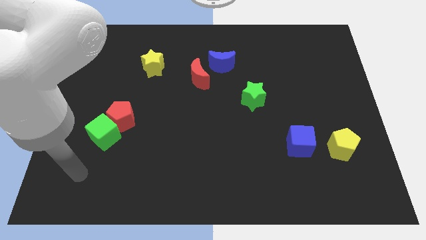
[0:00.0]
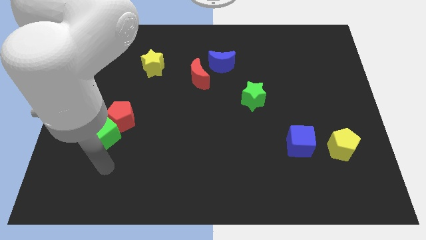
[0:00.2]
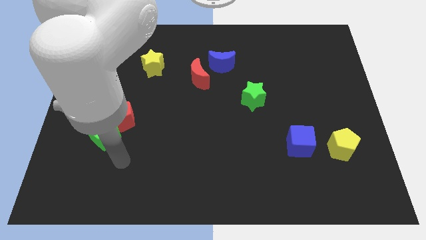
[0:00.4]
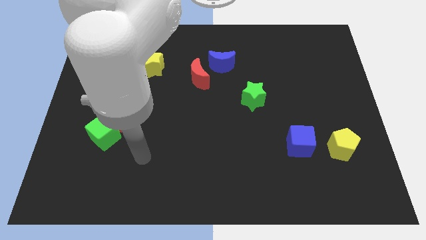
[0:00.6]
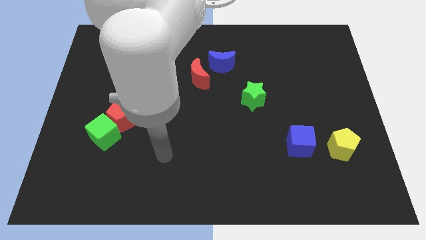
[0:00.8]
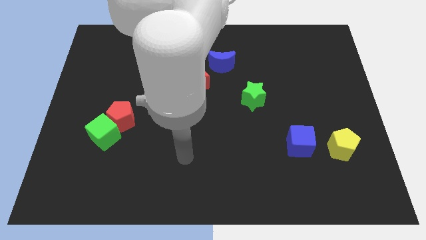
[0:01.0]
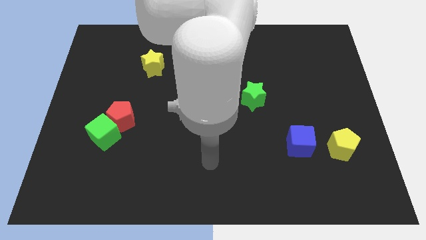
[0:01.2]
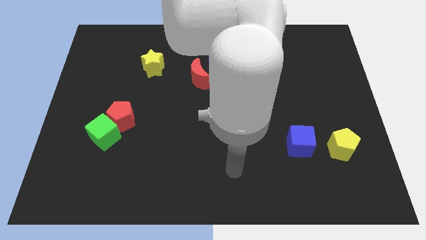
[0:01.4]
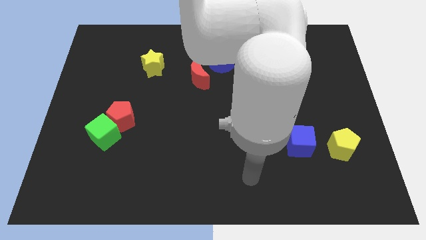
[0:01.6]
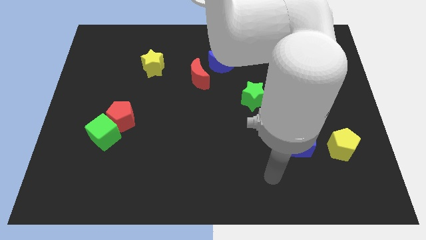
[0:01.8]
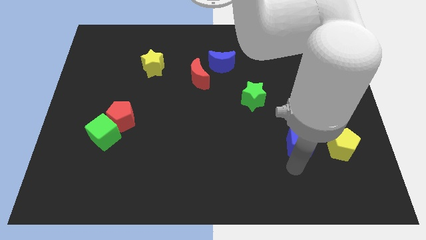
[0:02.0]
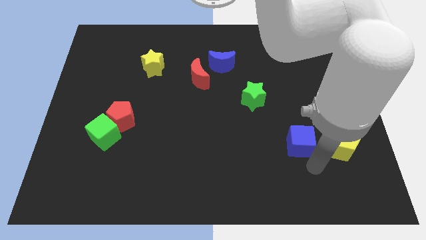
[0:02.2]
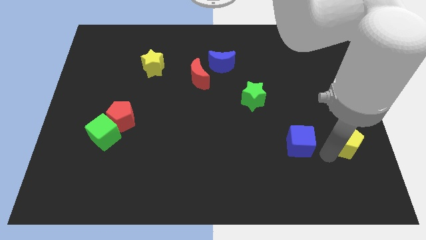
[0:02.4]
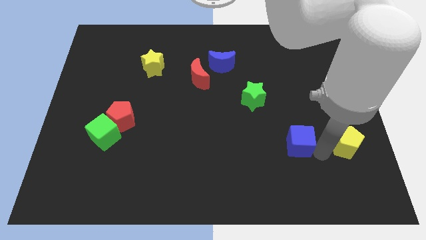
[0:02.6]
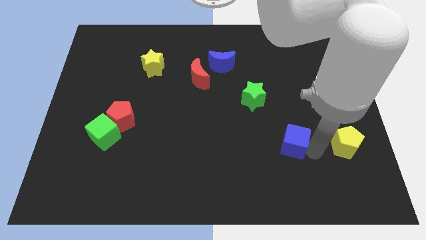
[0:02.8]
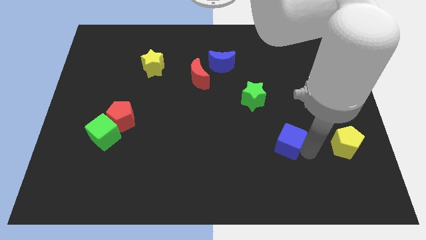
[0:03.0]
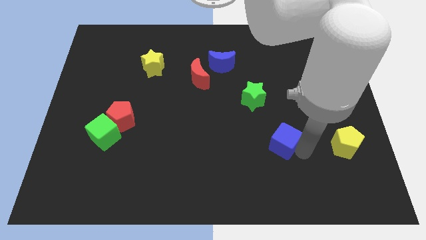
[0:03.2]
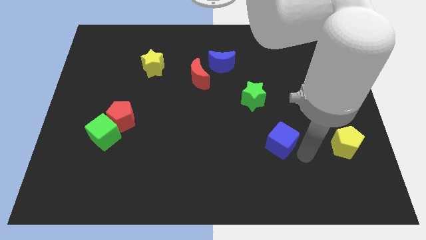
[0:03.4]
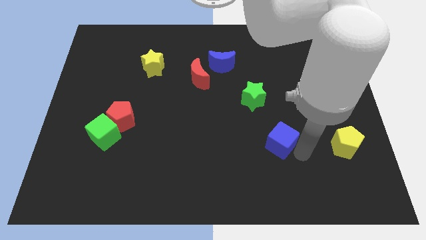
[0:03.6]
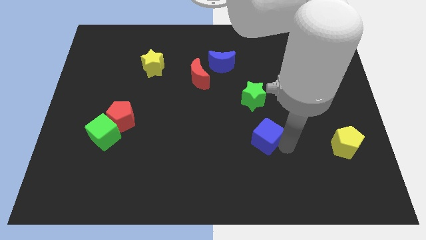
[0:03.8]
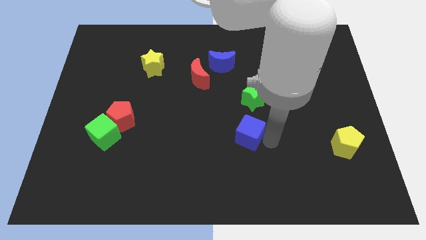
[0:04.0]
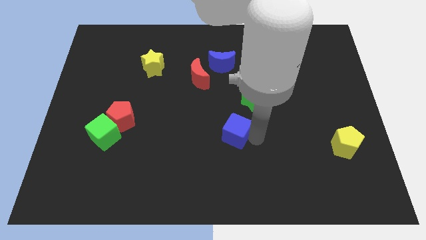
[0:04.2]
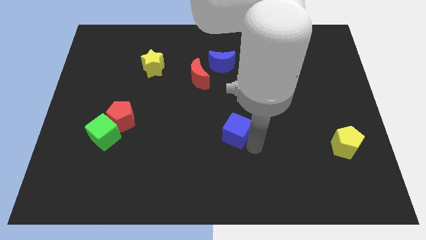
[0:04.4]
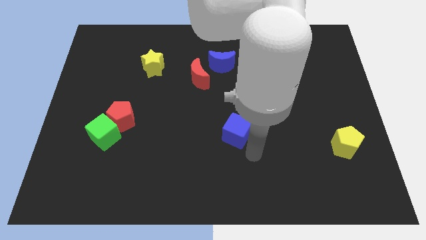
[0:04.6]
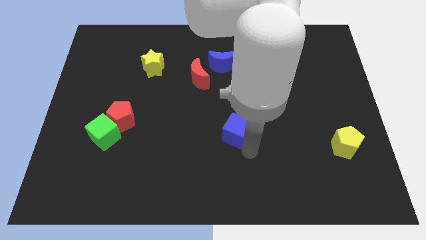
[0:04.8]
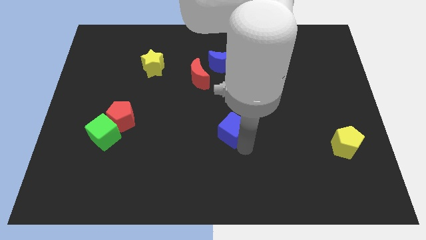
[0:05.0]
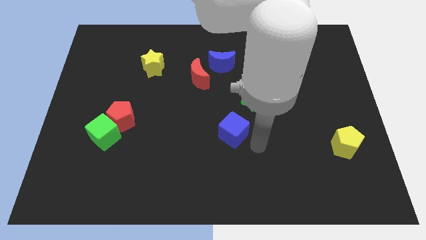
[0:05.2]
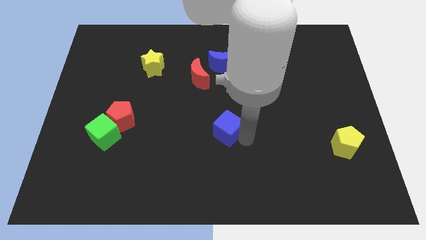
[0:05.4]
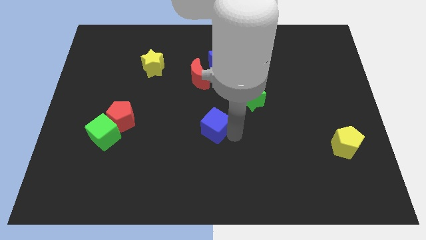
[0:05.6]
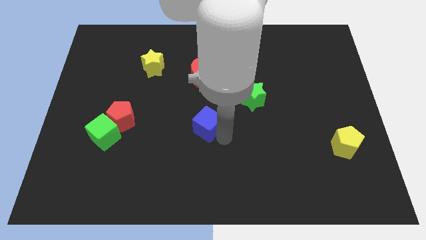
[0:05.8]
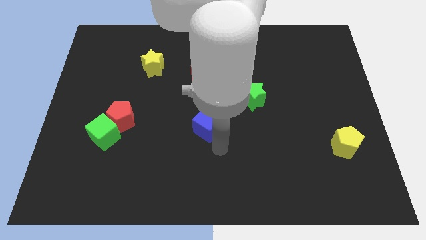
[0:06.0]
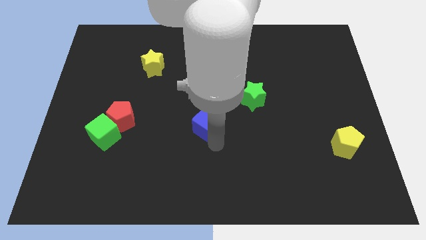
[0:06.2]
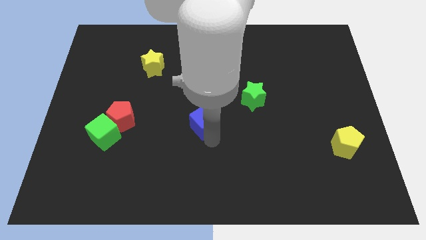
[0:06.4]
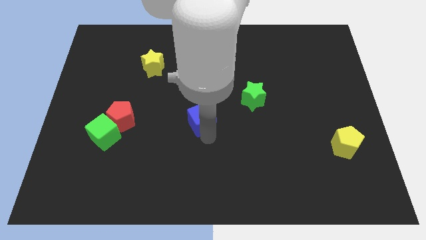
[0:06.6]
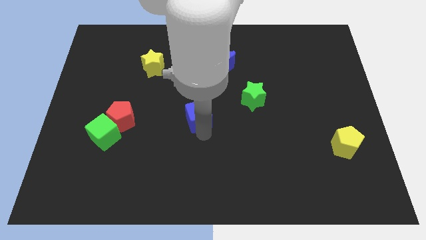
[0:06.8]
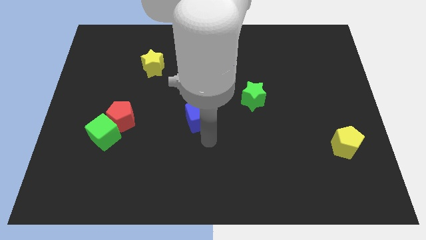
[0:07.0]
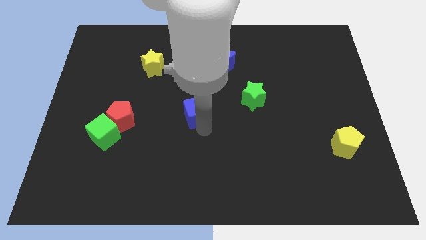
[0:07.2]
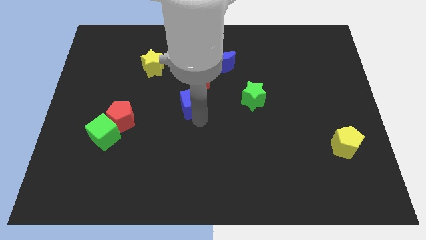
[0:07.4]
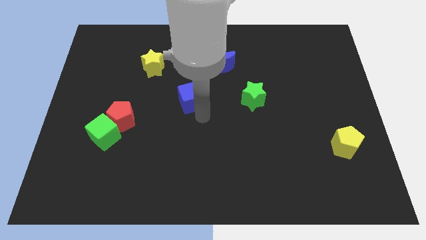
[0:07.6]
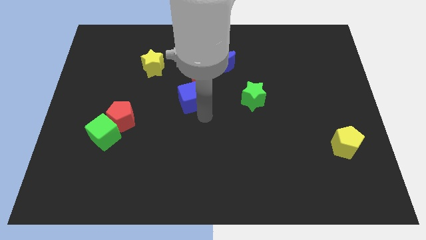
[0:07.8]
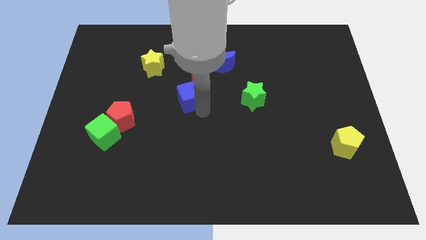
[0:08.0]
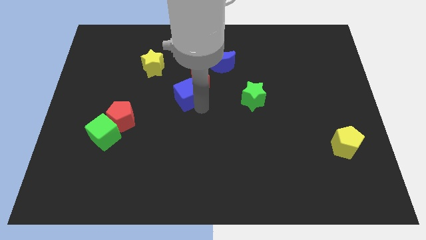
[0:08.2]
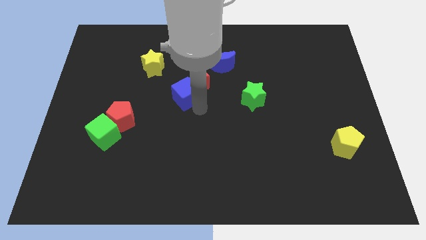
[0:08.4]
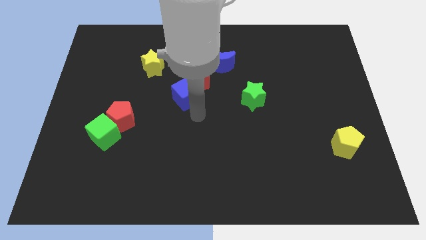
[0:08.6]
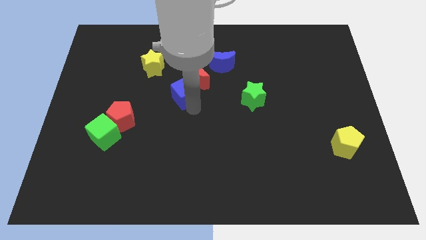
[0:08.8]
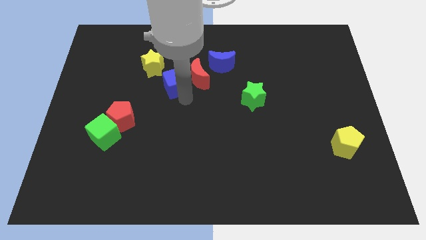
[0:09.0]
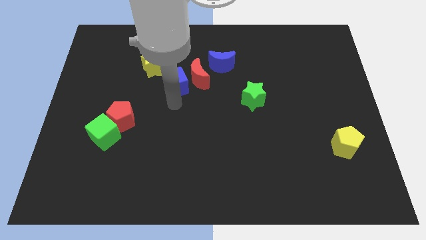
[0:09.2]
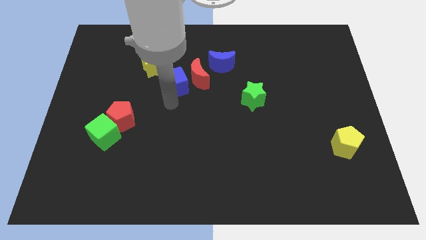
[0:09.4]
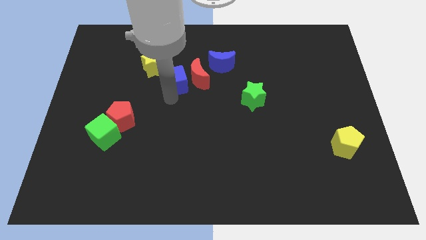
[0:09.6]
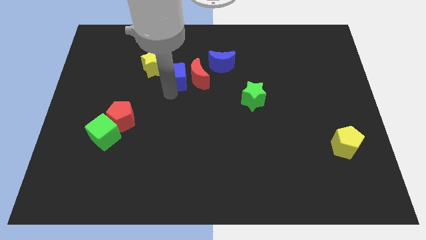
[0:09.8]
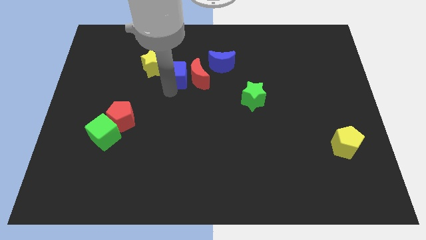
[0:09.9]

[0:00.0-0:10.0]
put the blue cube just left of the blue moon

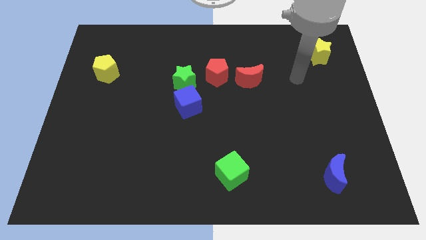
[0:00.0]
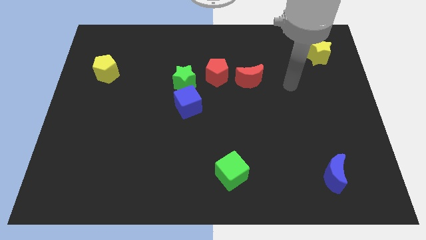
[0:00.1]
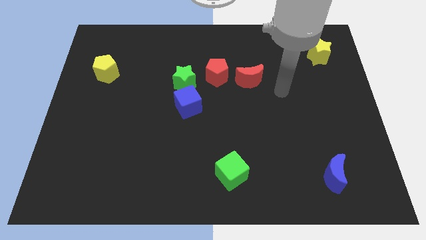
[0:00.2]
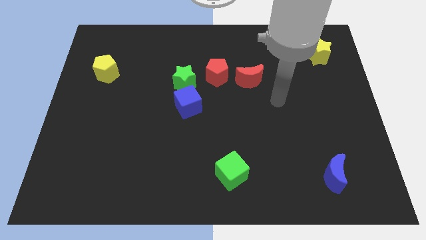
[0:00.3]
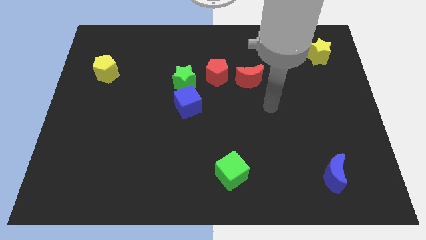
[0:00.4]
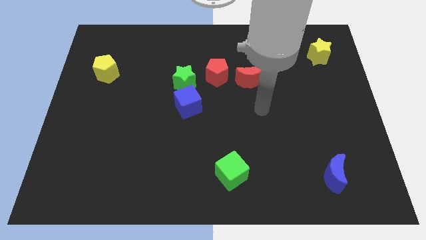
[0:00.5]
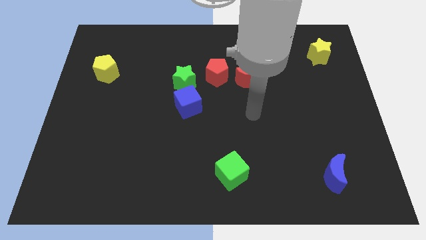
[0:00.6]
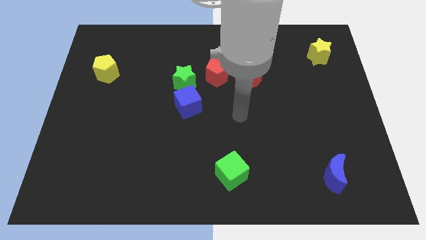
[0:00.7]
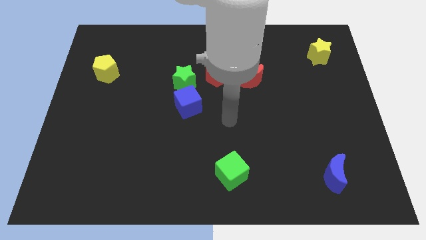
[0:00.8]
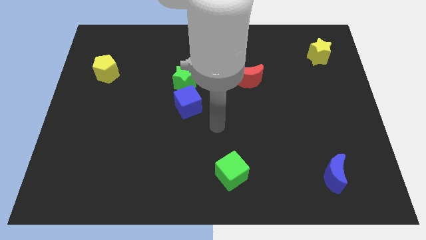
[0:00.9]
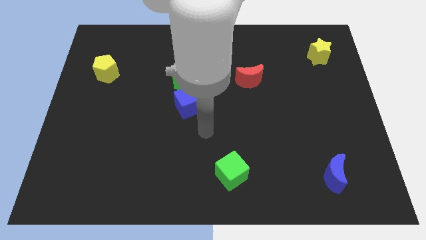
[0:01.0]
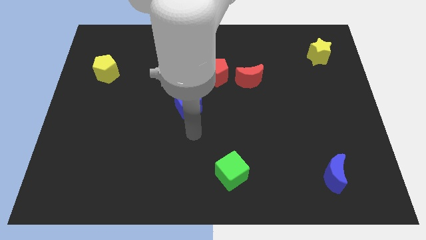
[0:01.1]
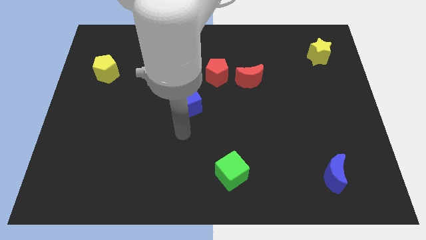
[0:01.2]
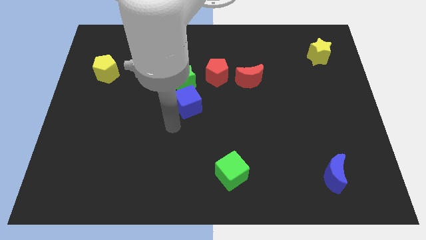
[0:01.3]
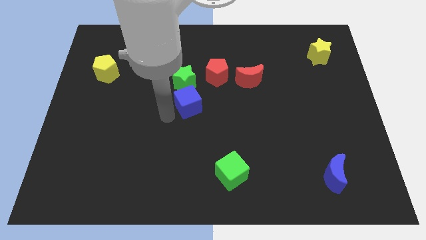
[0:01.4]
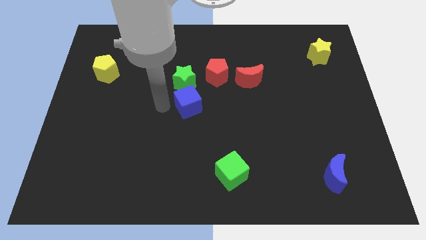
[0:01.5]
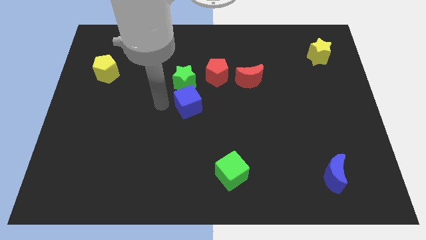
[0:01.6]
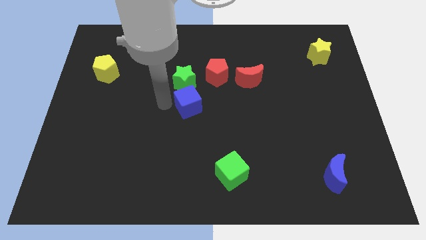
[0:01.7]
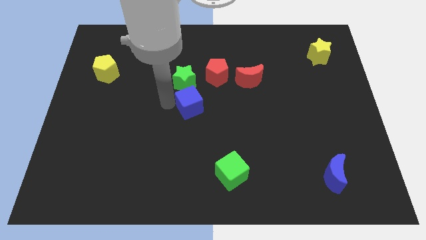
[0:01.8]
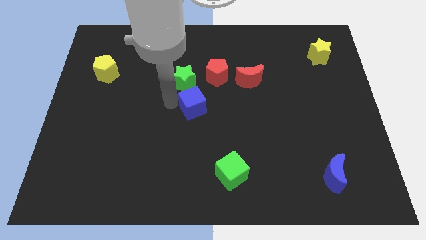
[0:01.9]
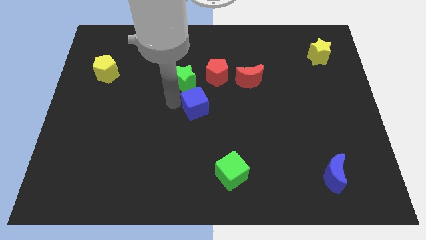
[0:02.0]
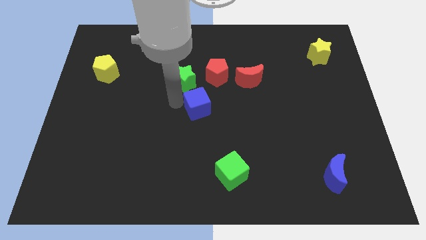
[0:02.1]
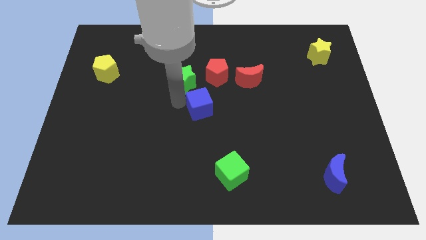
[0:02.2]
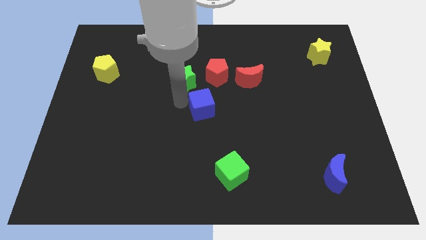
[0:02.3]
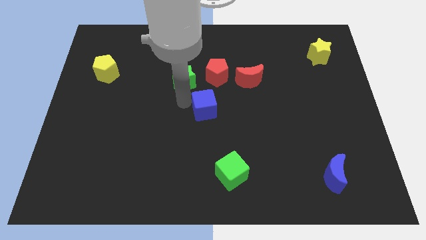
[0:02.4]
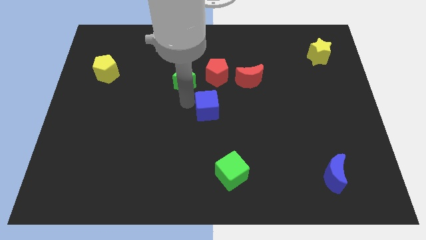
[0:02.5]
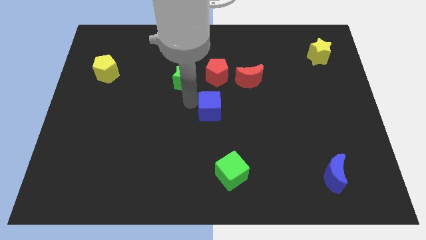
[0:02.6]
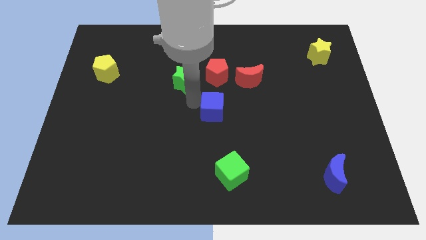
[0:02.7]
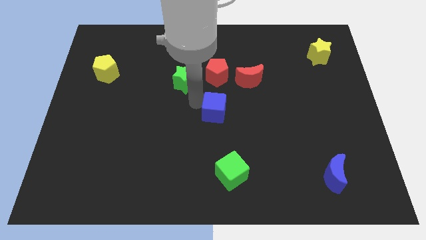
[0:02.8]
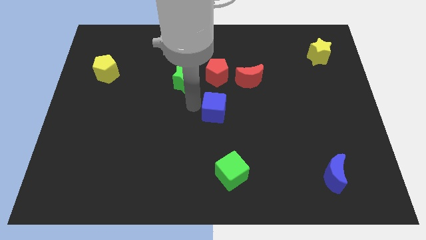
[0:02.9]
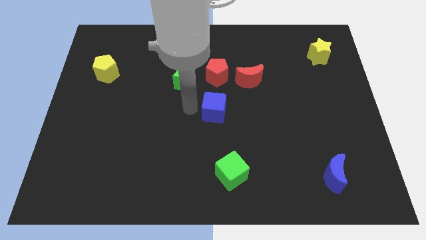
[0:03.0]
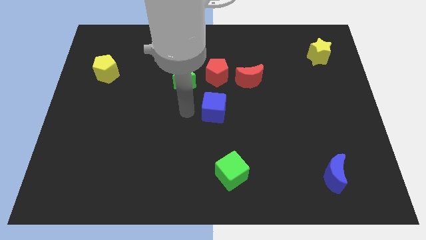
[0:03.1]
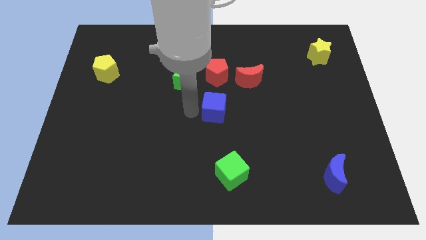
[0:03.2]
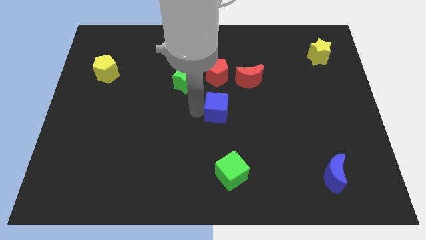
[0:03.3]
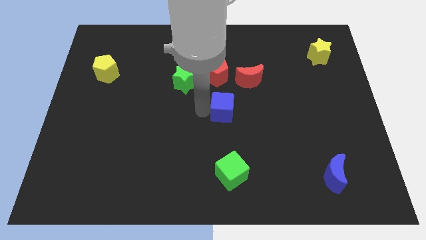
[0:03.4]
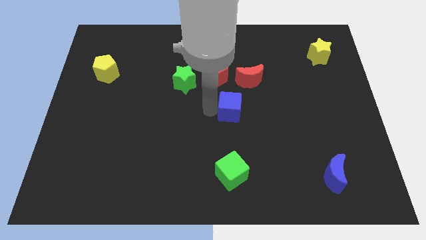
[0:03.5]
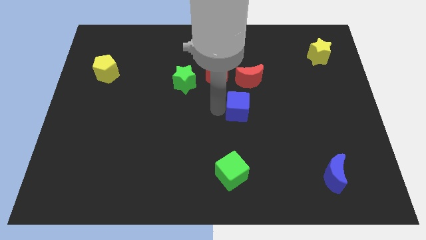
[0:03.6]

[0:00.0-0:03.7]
slide the blue cube to the bottom of the red moon
